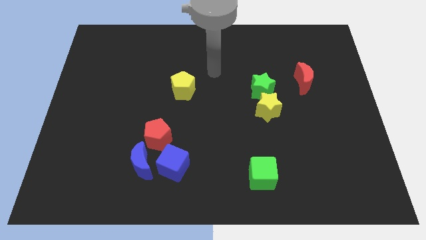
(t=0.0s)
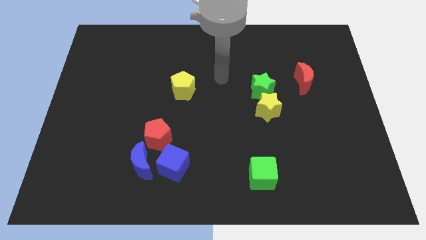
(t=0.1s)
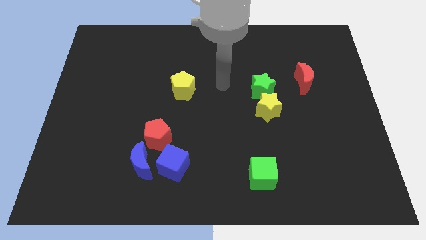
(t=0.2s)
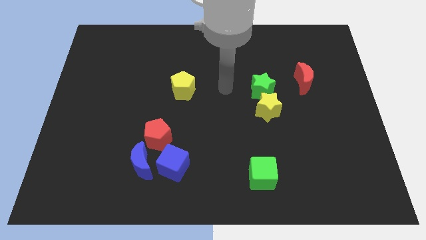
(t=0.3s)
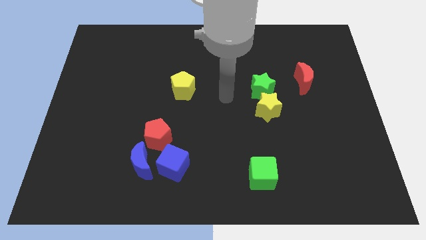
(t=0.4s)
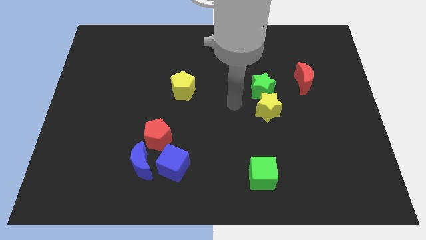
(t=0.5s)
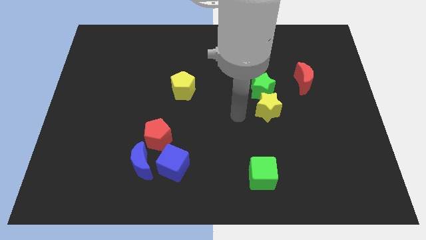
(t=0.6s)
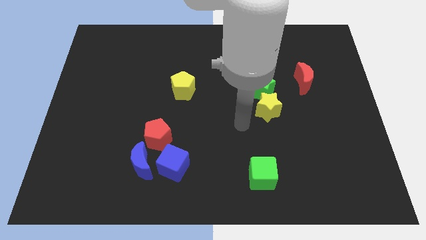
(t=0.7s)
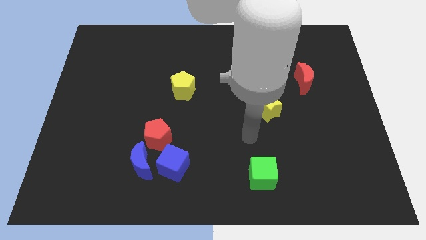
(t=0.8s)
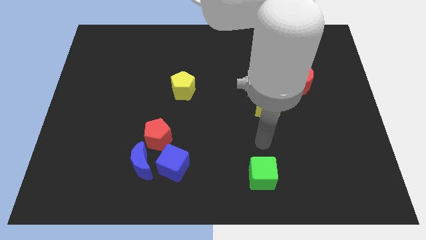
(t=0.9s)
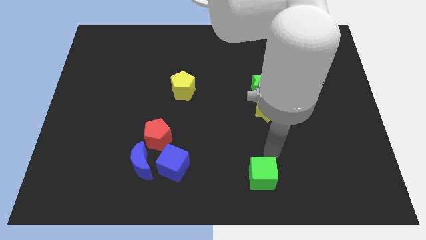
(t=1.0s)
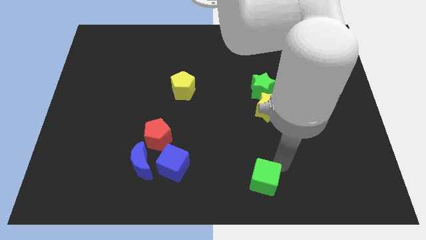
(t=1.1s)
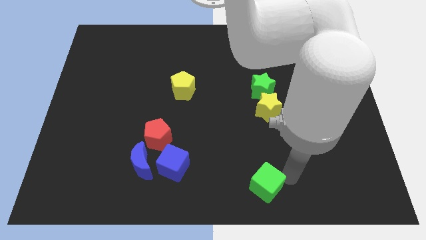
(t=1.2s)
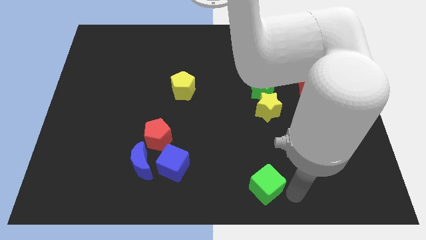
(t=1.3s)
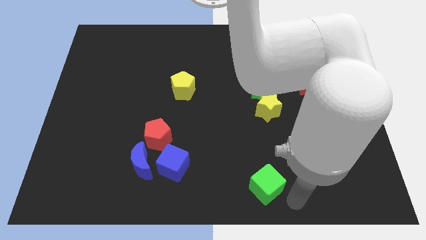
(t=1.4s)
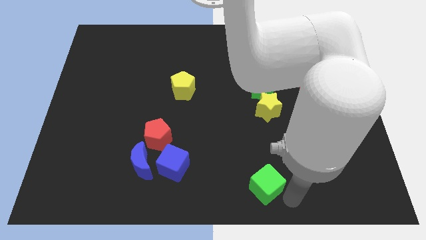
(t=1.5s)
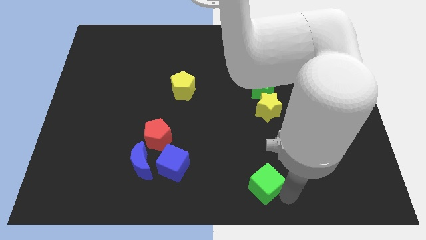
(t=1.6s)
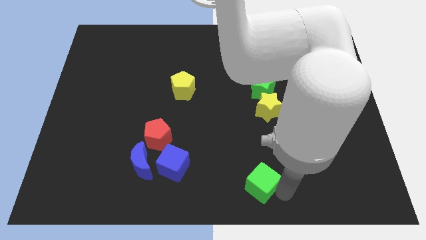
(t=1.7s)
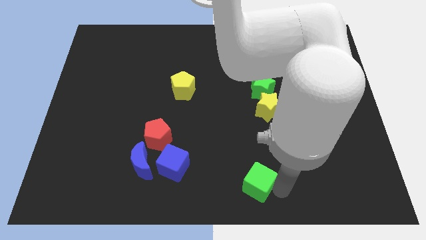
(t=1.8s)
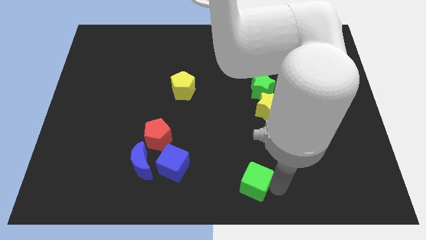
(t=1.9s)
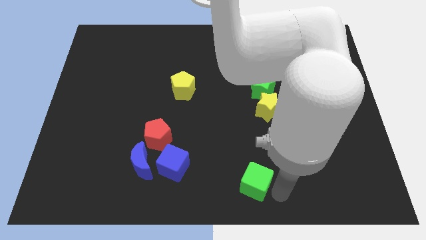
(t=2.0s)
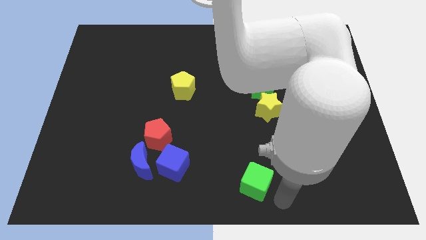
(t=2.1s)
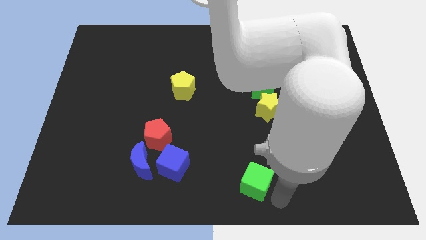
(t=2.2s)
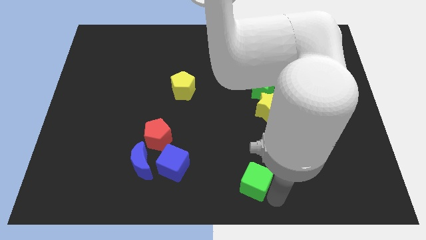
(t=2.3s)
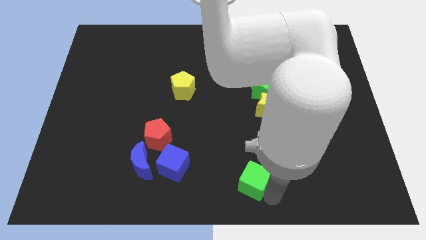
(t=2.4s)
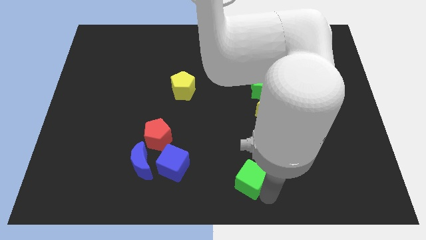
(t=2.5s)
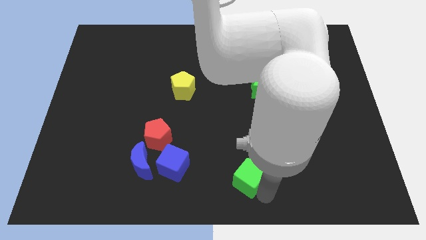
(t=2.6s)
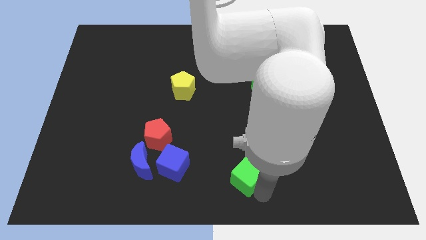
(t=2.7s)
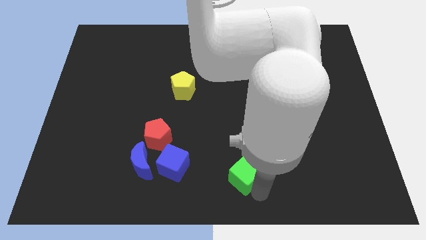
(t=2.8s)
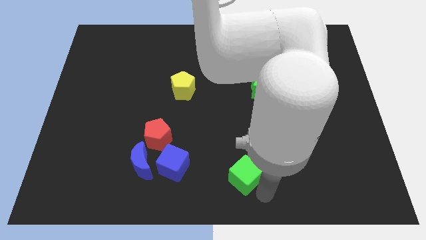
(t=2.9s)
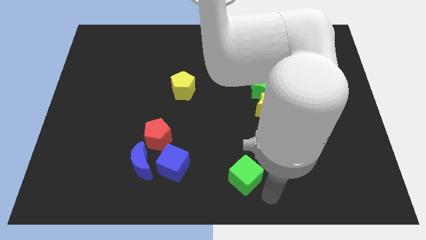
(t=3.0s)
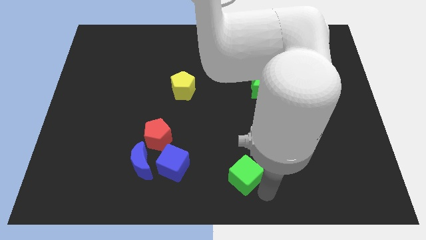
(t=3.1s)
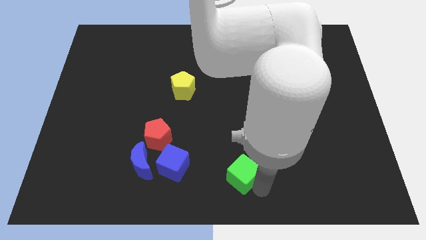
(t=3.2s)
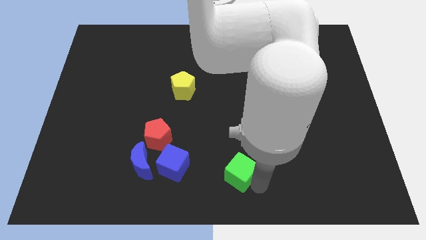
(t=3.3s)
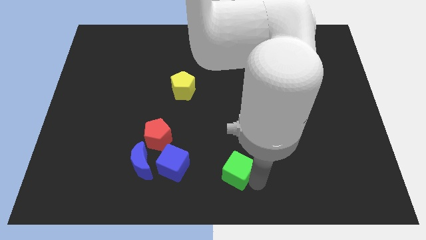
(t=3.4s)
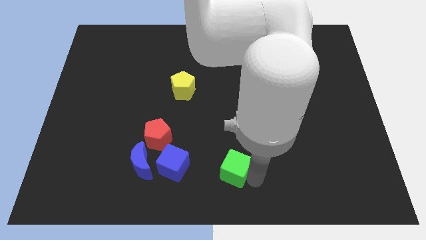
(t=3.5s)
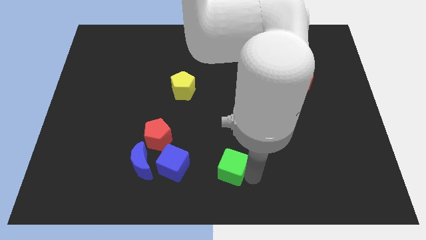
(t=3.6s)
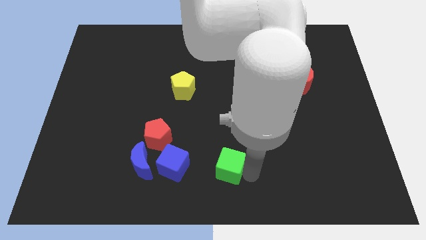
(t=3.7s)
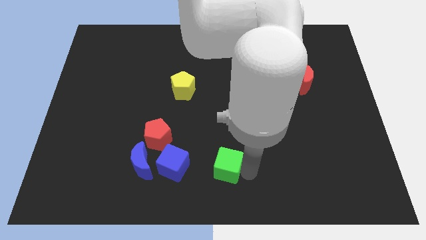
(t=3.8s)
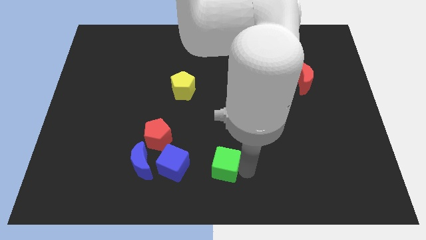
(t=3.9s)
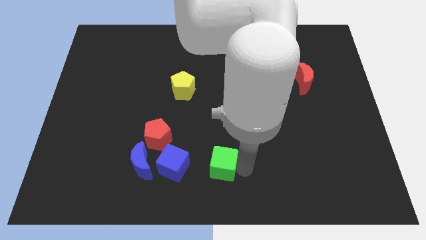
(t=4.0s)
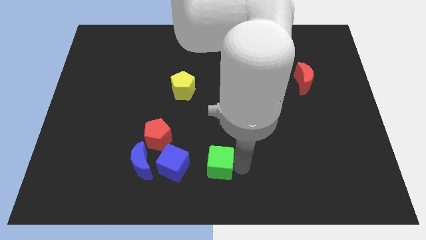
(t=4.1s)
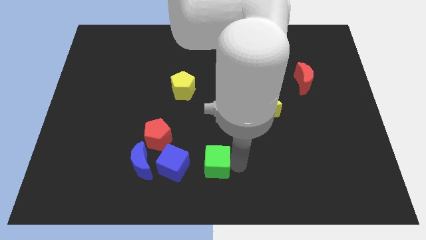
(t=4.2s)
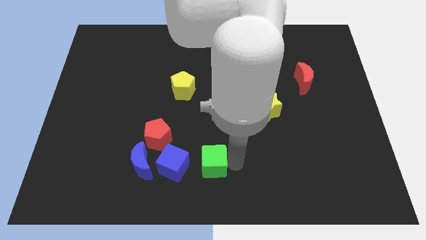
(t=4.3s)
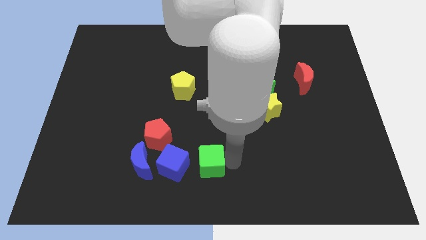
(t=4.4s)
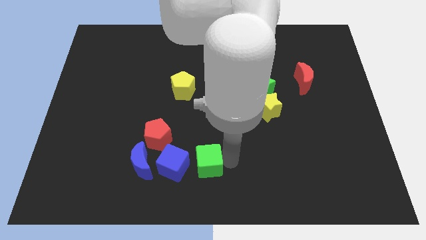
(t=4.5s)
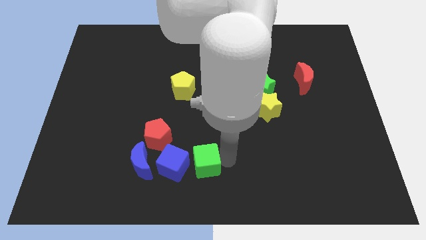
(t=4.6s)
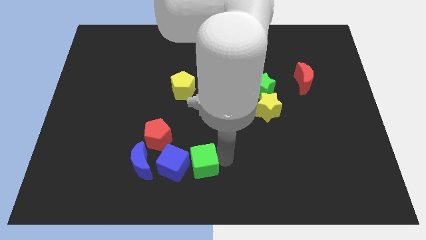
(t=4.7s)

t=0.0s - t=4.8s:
push the green cube diagonally down and to the right of the red pentagon

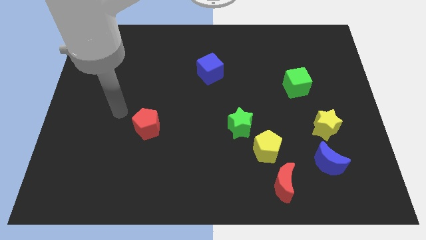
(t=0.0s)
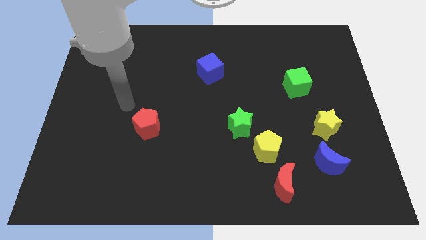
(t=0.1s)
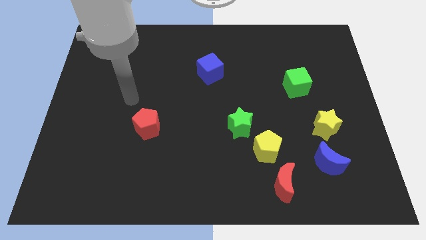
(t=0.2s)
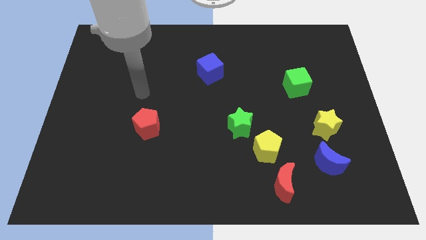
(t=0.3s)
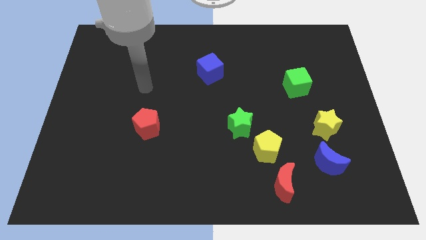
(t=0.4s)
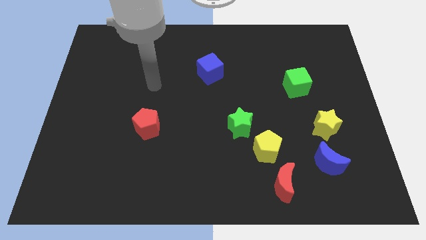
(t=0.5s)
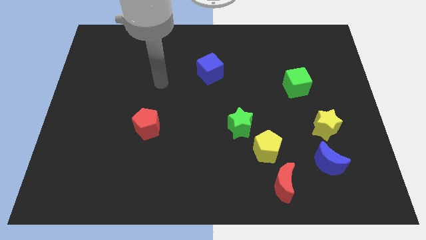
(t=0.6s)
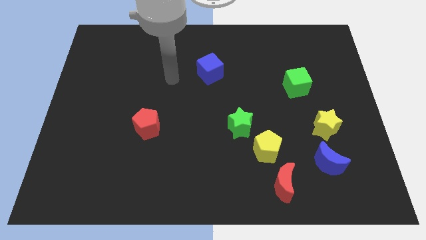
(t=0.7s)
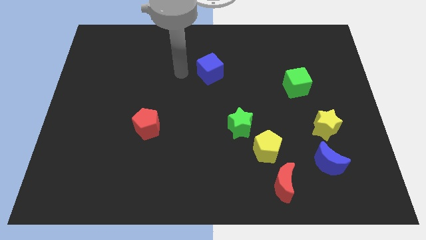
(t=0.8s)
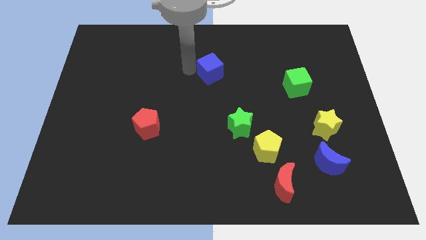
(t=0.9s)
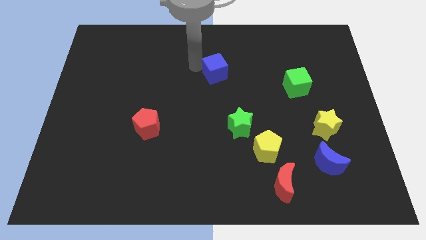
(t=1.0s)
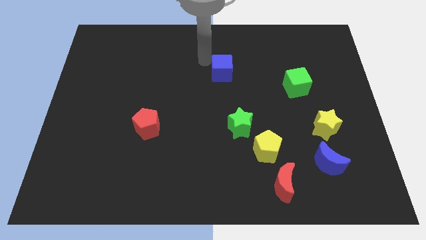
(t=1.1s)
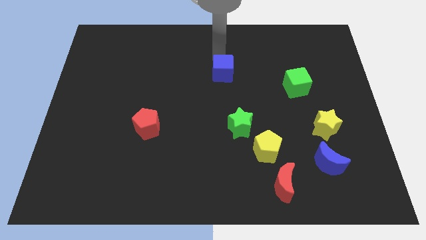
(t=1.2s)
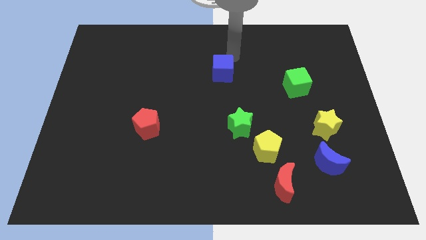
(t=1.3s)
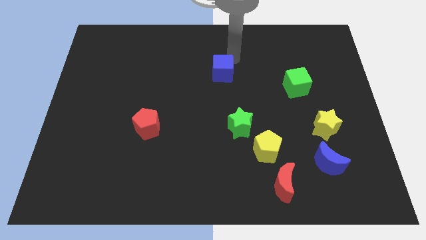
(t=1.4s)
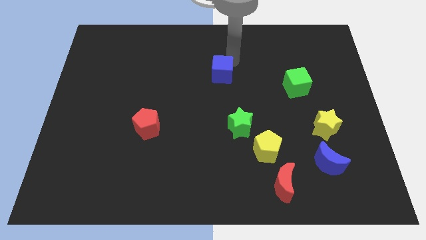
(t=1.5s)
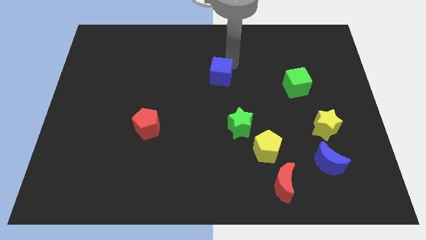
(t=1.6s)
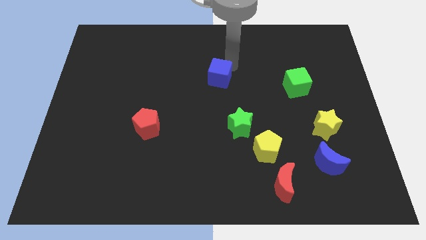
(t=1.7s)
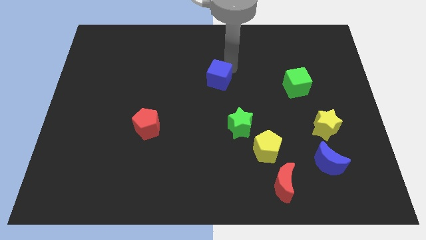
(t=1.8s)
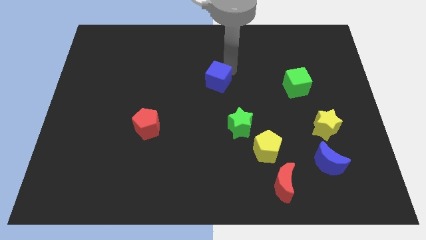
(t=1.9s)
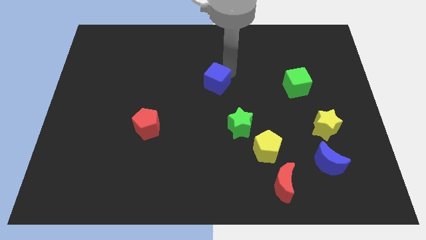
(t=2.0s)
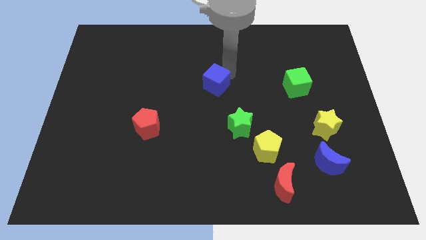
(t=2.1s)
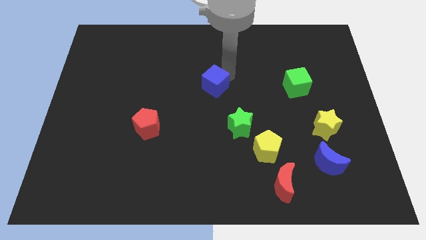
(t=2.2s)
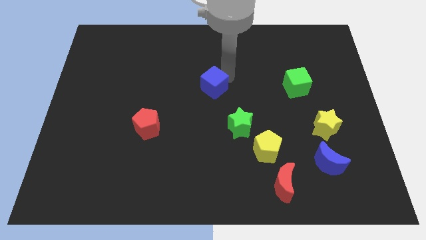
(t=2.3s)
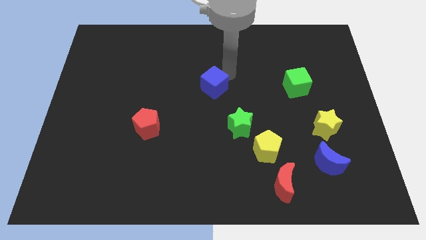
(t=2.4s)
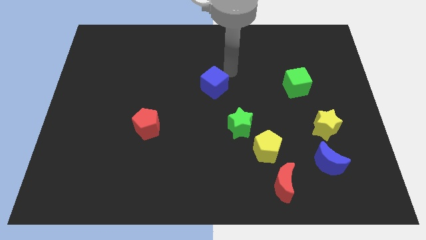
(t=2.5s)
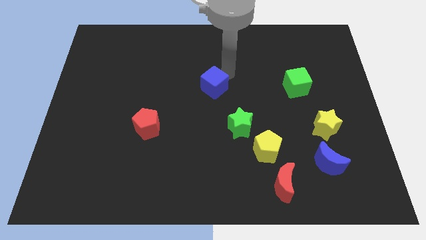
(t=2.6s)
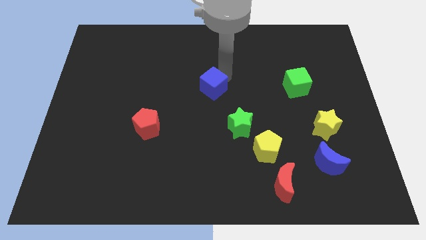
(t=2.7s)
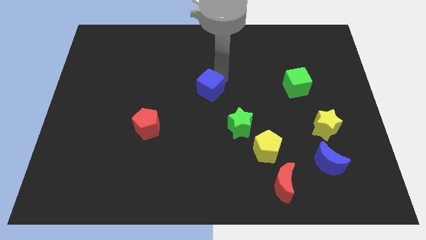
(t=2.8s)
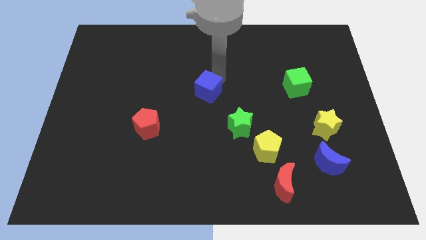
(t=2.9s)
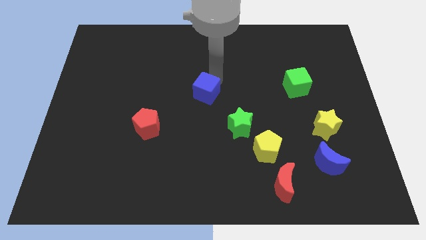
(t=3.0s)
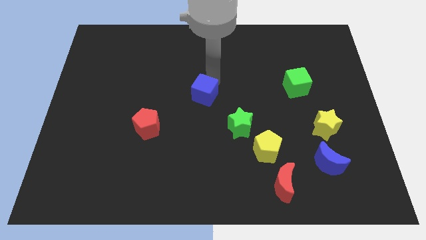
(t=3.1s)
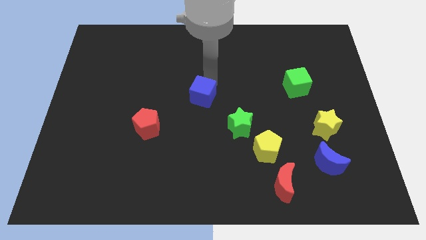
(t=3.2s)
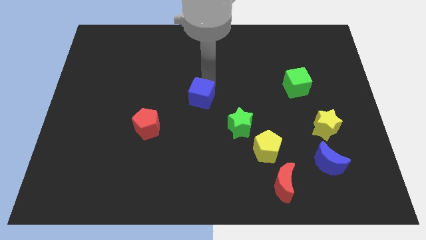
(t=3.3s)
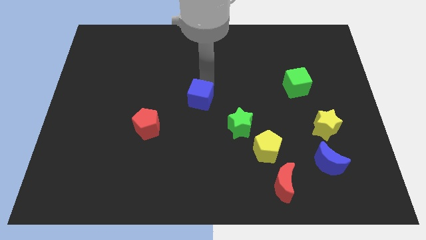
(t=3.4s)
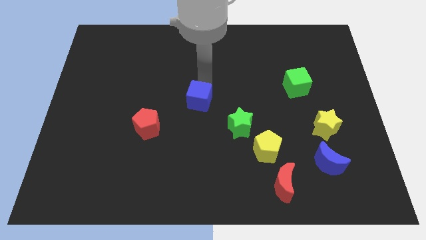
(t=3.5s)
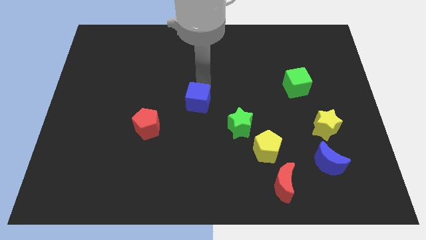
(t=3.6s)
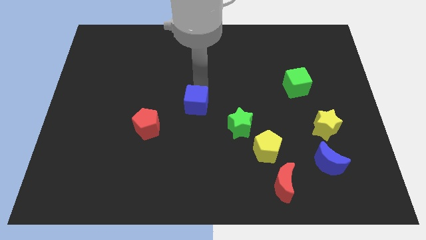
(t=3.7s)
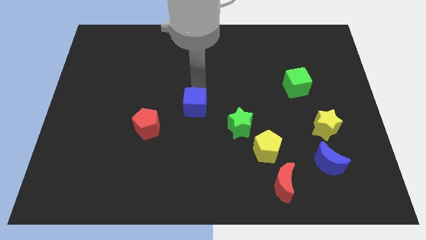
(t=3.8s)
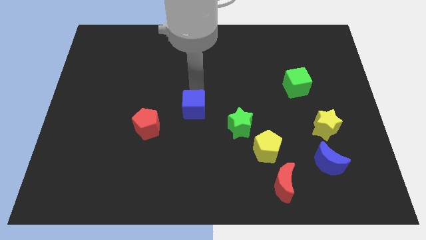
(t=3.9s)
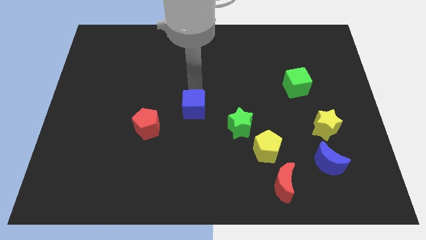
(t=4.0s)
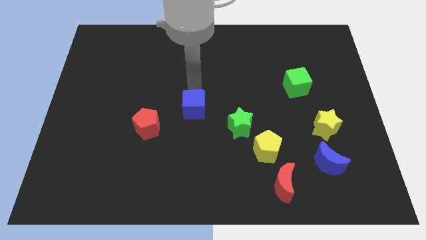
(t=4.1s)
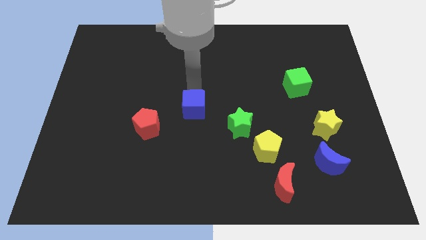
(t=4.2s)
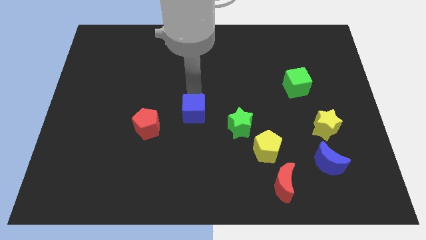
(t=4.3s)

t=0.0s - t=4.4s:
move the blue cube to the right of the red pentagon
